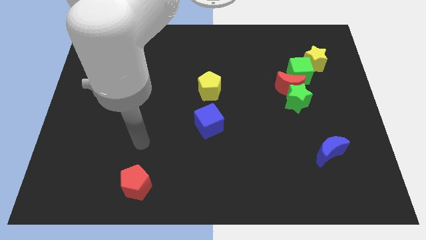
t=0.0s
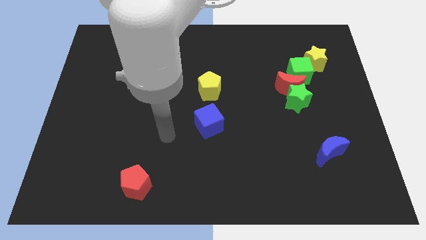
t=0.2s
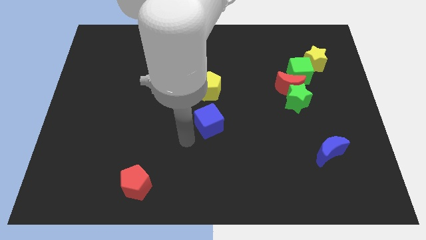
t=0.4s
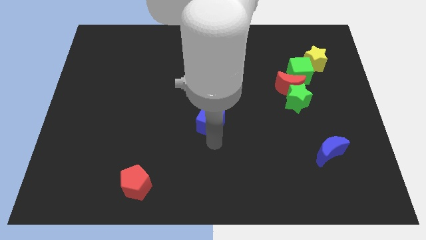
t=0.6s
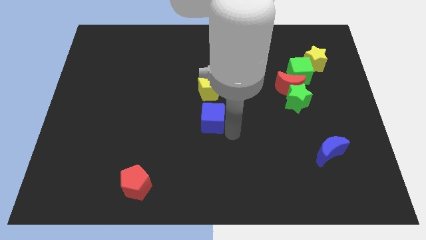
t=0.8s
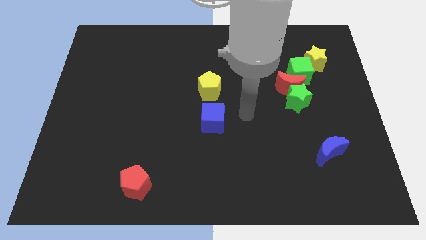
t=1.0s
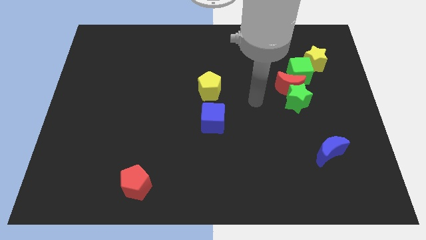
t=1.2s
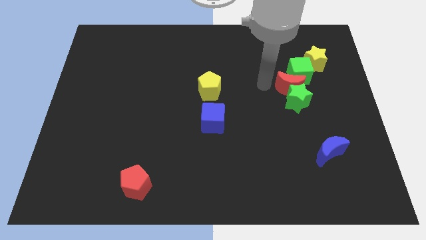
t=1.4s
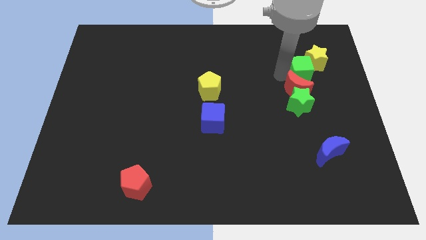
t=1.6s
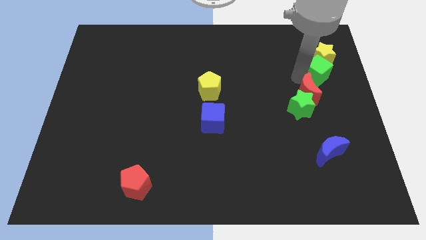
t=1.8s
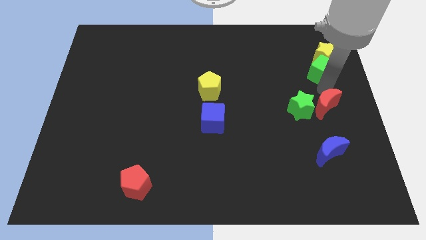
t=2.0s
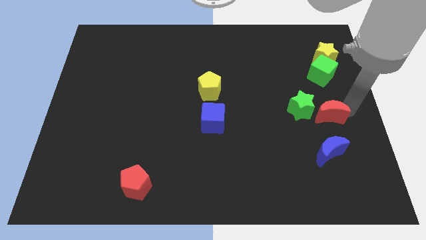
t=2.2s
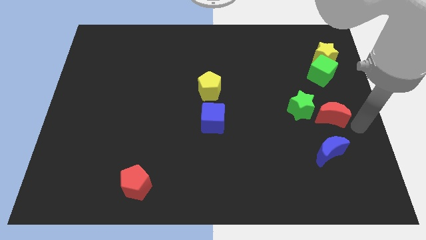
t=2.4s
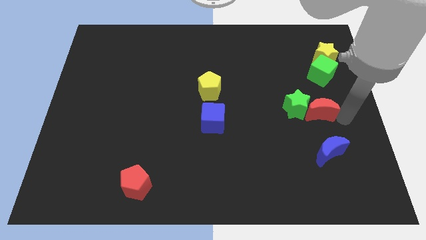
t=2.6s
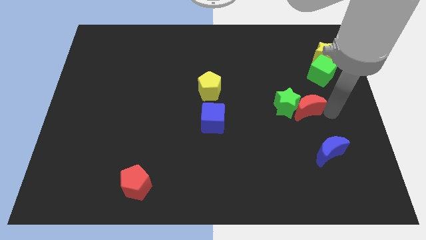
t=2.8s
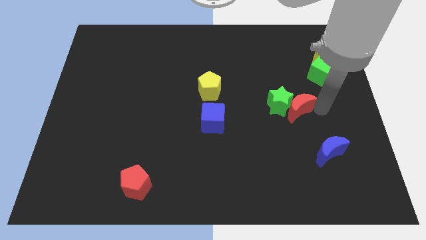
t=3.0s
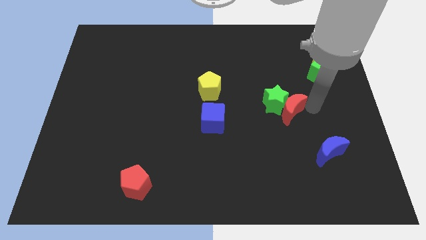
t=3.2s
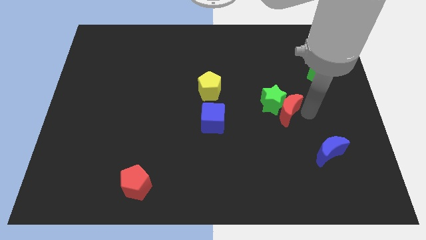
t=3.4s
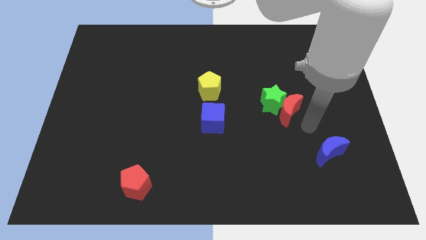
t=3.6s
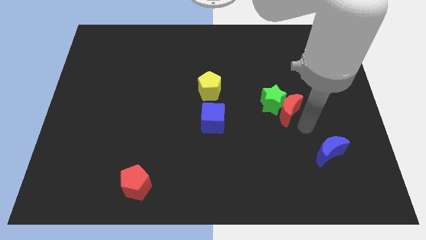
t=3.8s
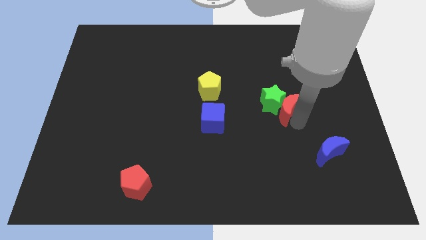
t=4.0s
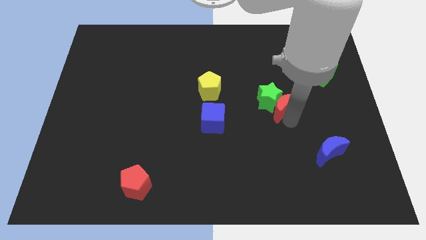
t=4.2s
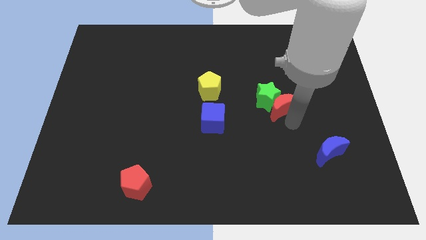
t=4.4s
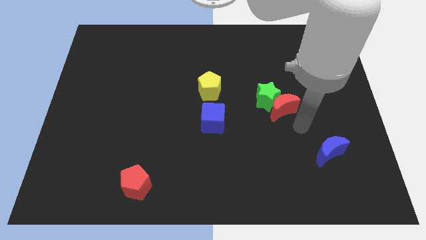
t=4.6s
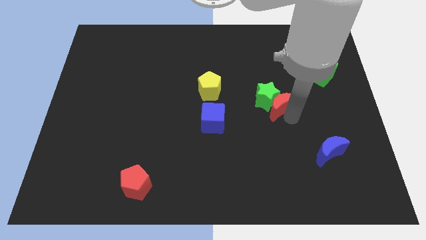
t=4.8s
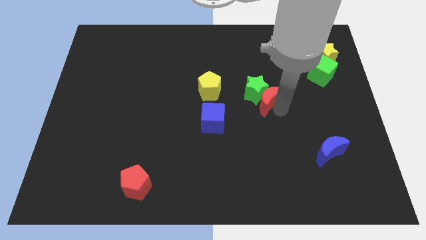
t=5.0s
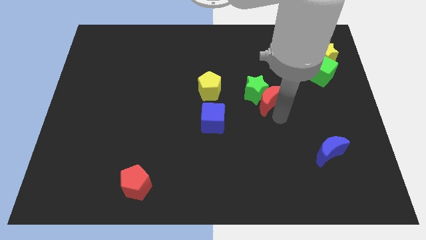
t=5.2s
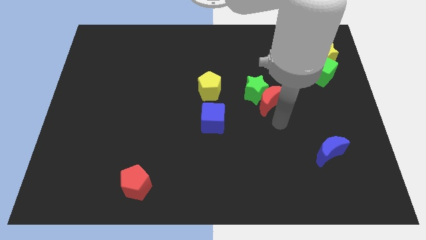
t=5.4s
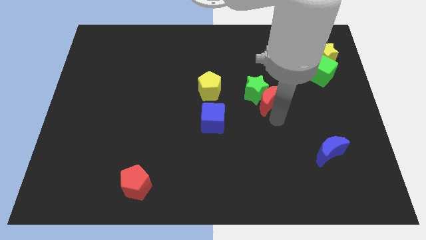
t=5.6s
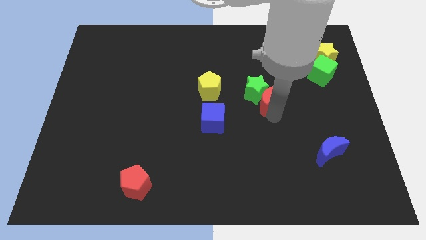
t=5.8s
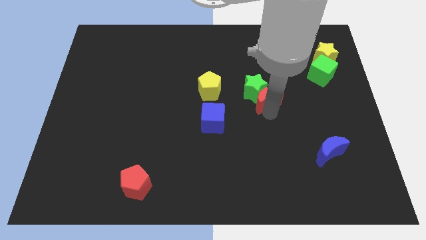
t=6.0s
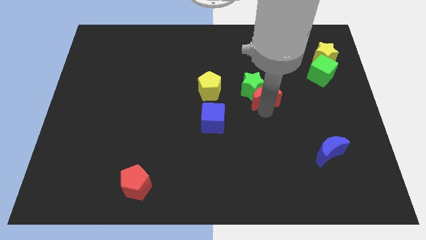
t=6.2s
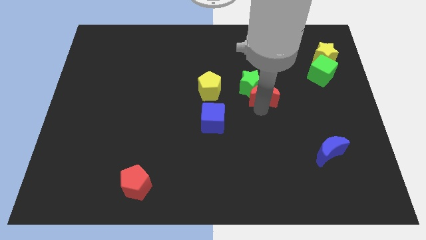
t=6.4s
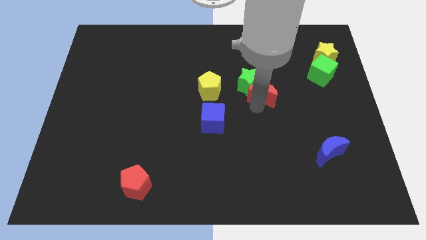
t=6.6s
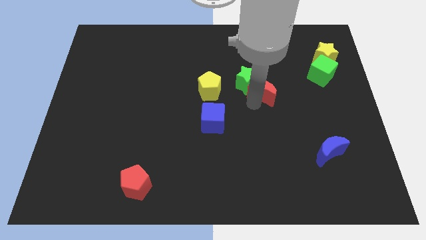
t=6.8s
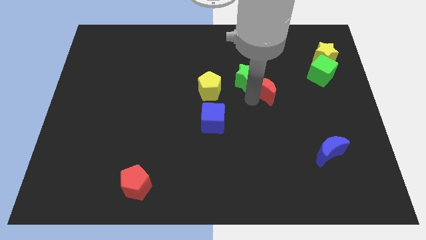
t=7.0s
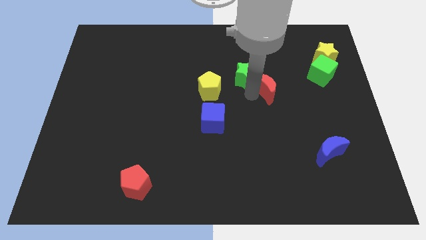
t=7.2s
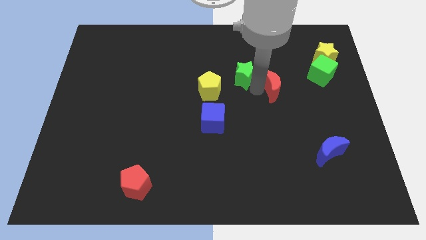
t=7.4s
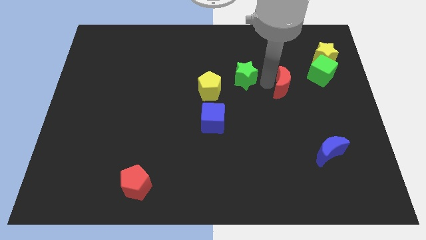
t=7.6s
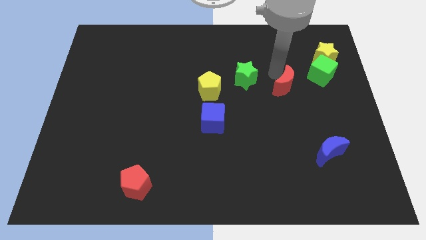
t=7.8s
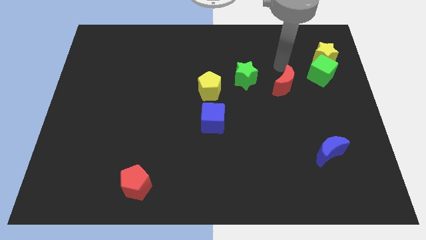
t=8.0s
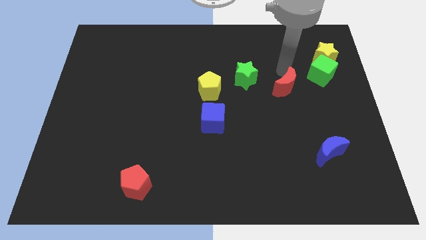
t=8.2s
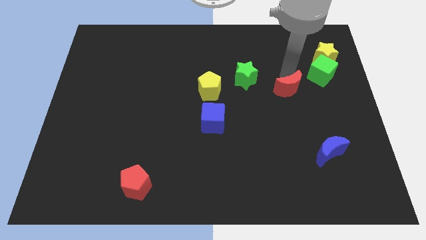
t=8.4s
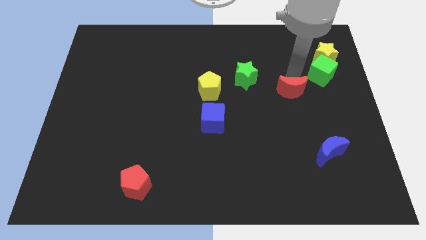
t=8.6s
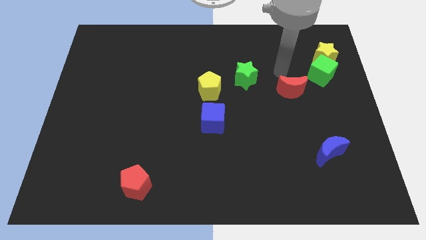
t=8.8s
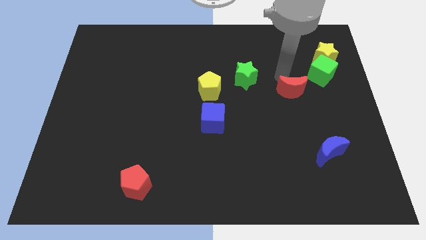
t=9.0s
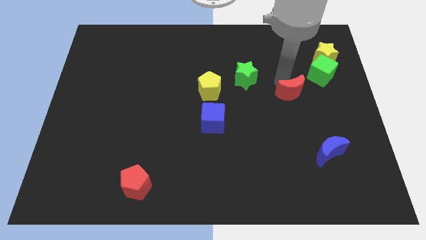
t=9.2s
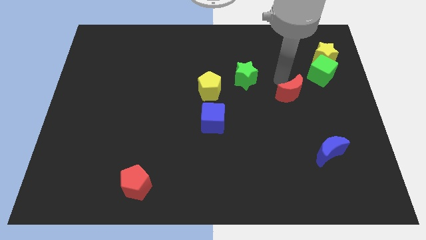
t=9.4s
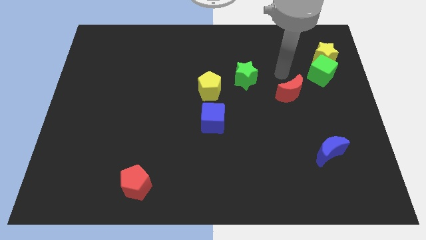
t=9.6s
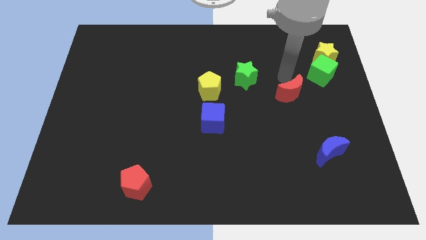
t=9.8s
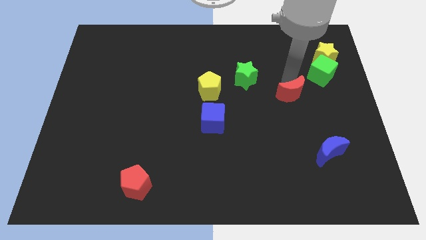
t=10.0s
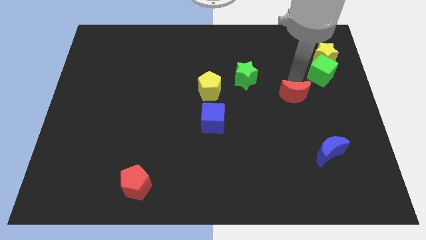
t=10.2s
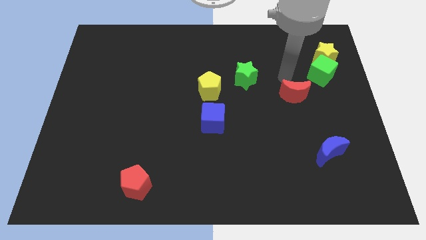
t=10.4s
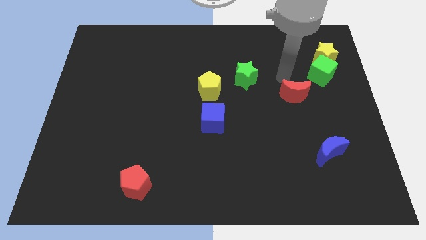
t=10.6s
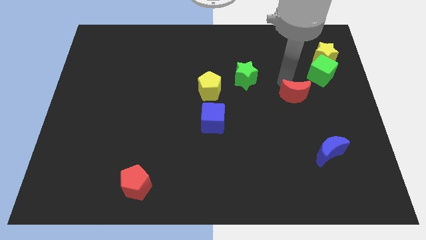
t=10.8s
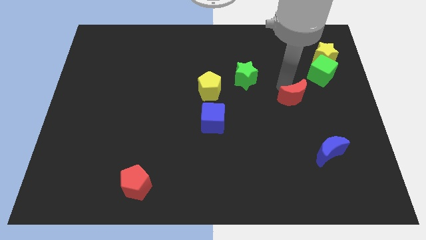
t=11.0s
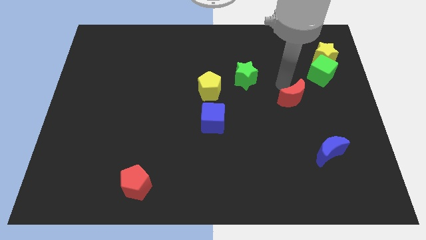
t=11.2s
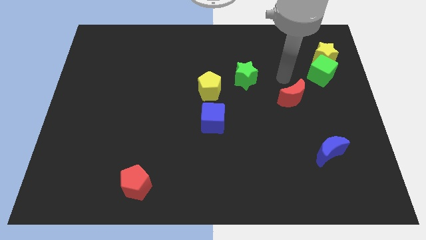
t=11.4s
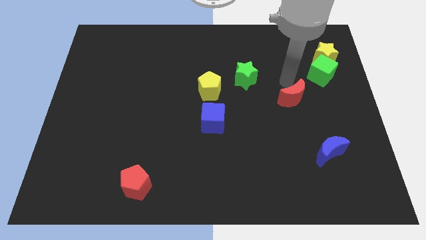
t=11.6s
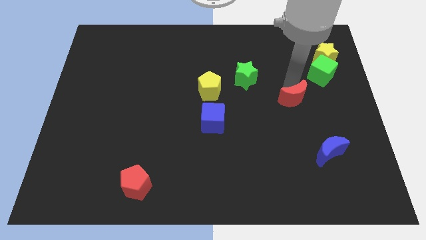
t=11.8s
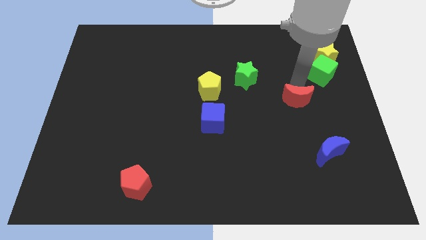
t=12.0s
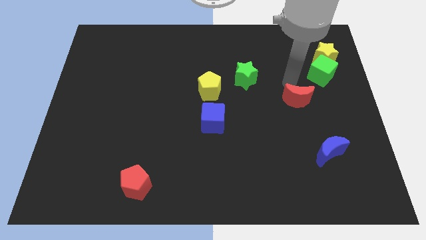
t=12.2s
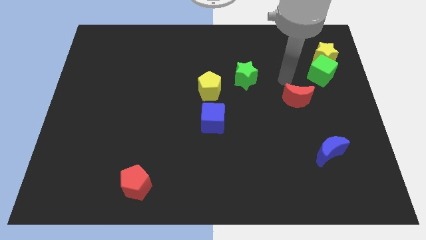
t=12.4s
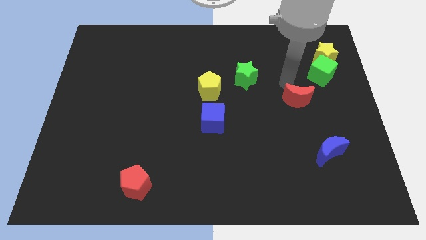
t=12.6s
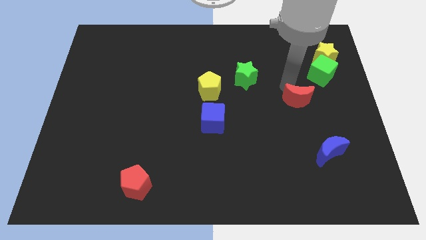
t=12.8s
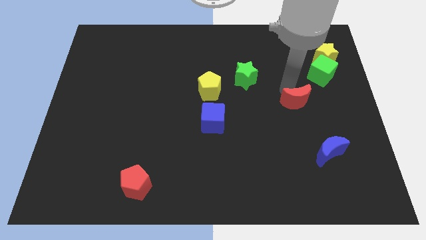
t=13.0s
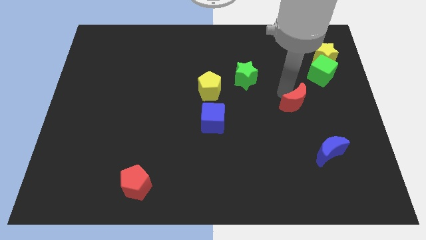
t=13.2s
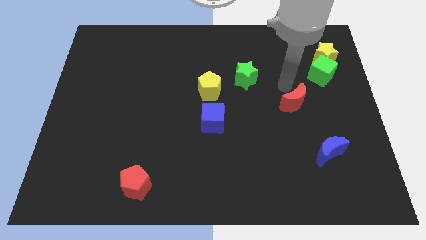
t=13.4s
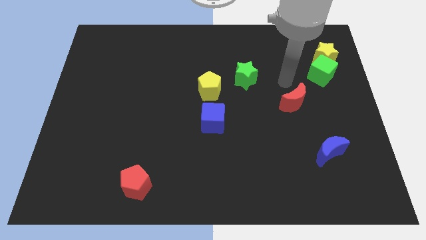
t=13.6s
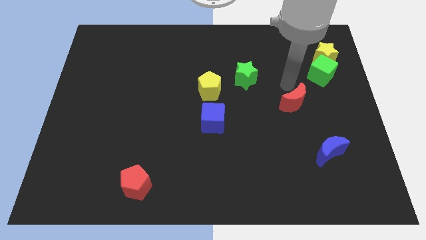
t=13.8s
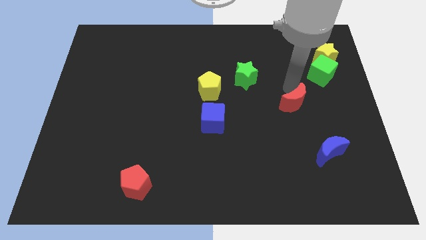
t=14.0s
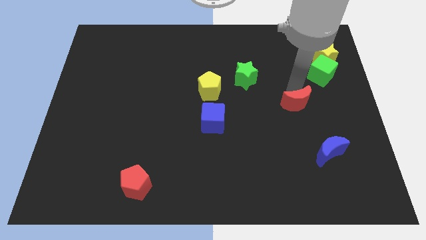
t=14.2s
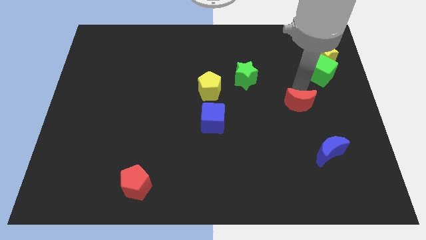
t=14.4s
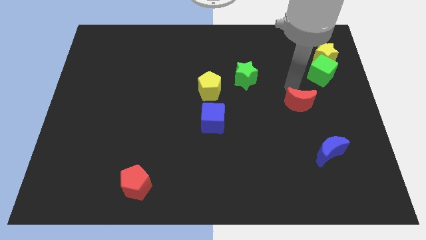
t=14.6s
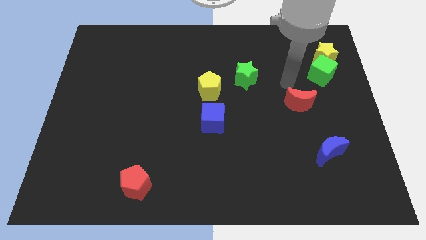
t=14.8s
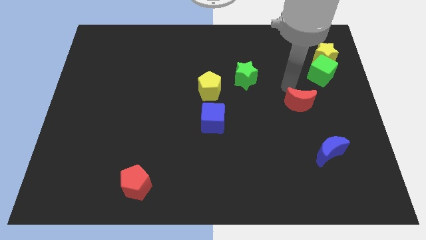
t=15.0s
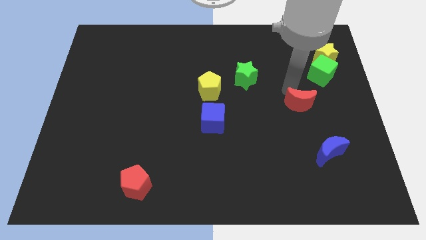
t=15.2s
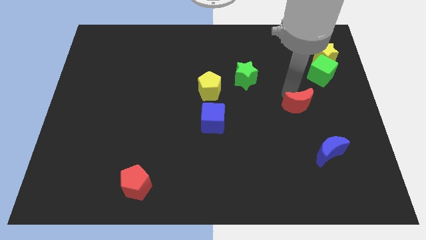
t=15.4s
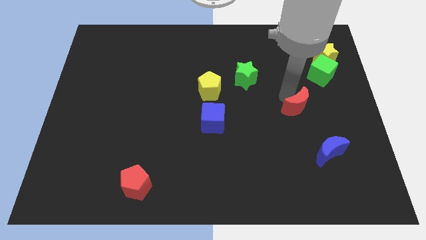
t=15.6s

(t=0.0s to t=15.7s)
pull the red moon apart from the green star and green cube

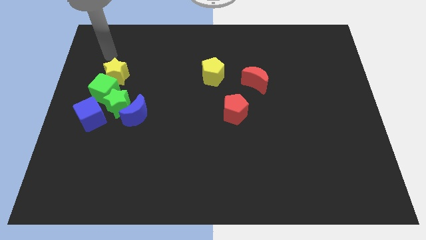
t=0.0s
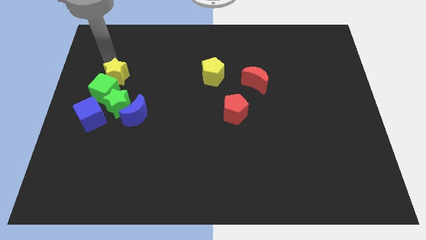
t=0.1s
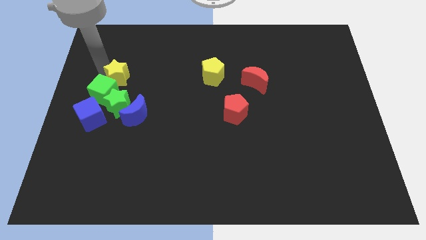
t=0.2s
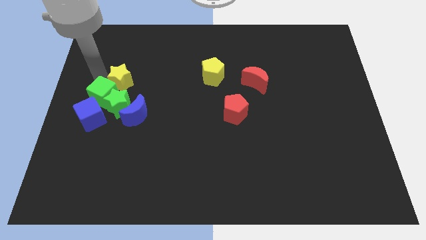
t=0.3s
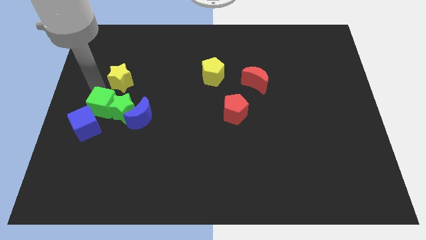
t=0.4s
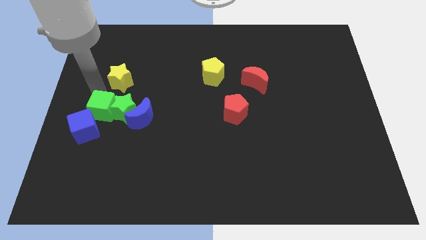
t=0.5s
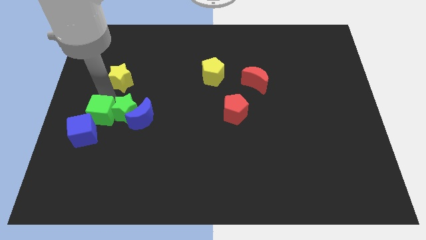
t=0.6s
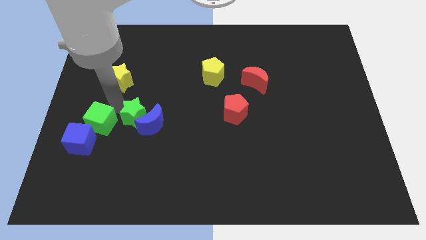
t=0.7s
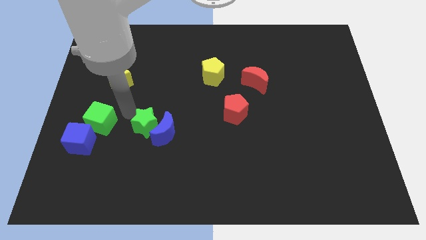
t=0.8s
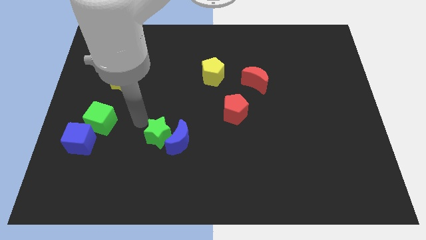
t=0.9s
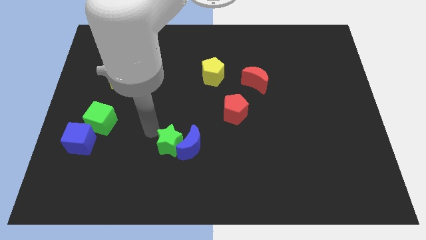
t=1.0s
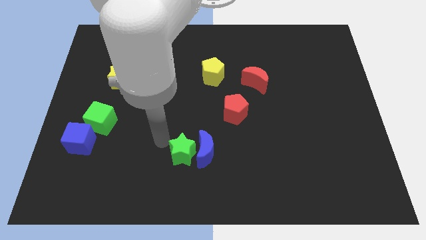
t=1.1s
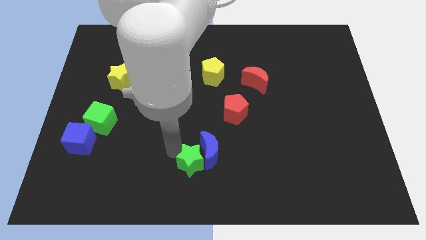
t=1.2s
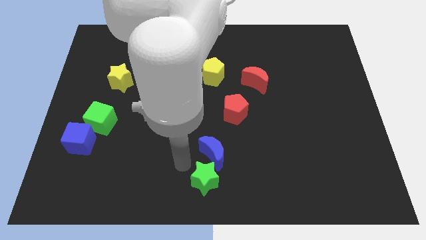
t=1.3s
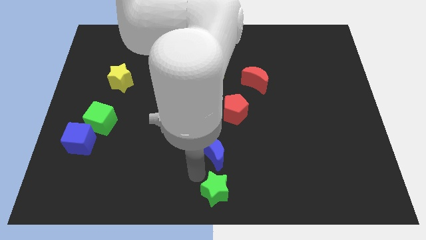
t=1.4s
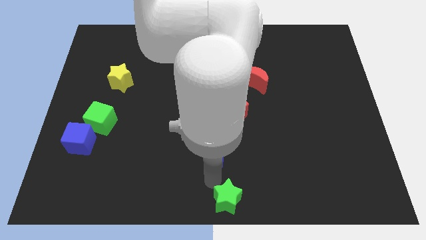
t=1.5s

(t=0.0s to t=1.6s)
separate the blue moon from the green star
